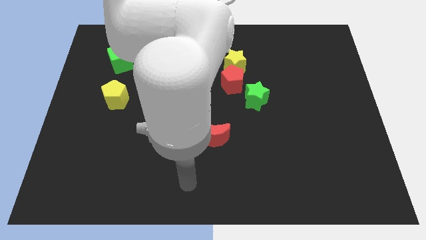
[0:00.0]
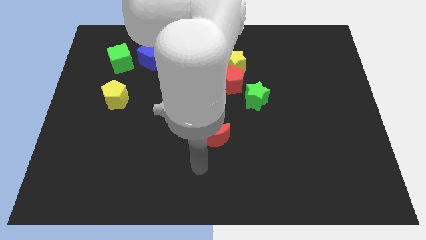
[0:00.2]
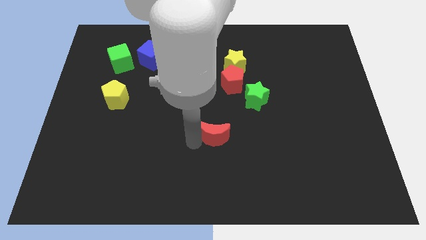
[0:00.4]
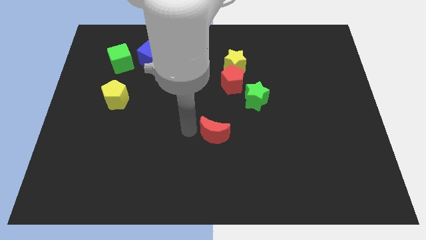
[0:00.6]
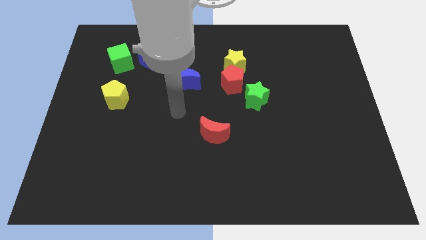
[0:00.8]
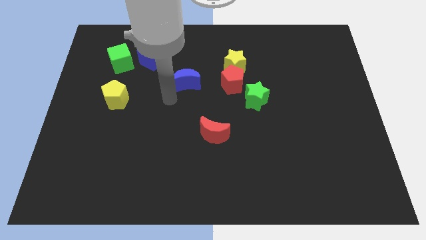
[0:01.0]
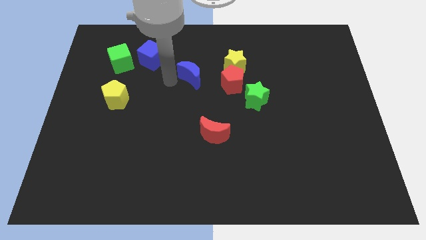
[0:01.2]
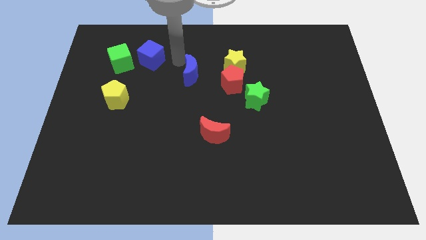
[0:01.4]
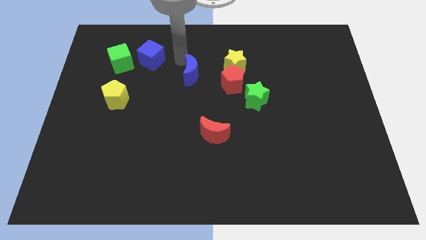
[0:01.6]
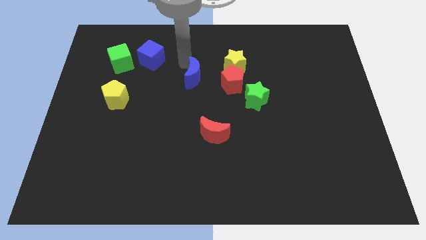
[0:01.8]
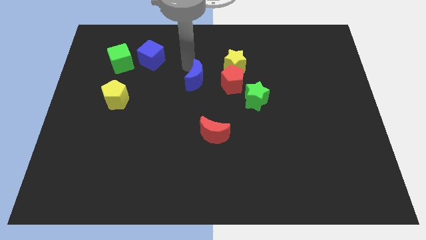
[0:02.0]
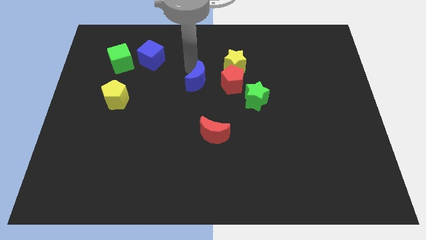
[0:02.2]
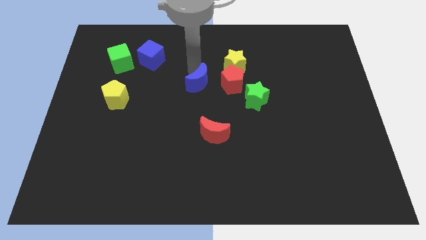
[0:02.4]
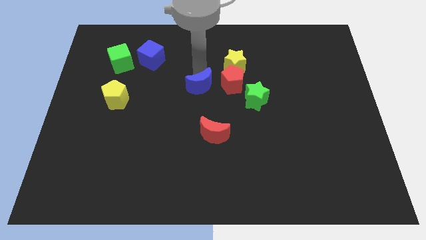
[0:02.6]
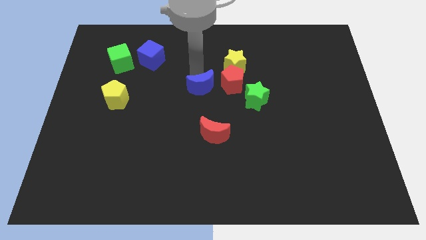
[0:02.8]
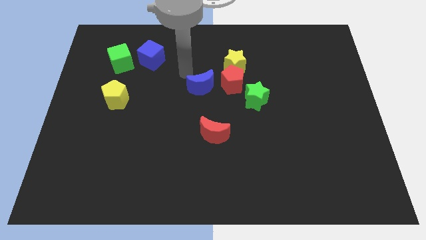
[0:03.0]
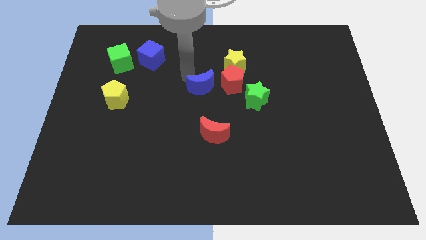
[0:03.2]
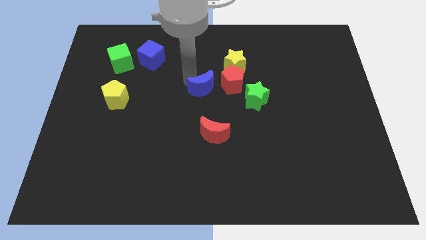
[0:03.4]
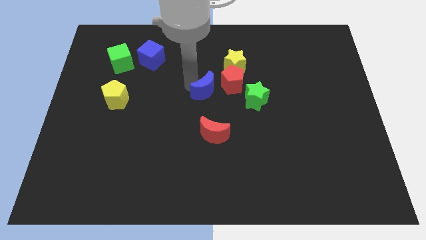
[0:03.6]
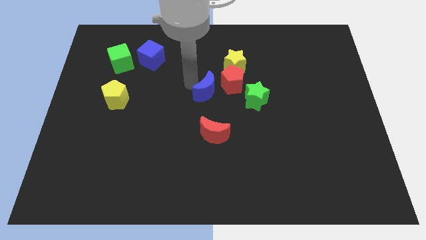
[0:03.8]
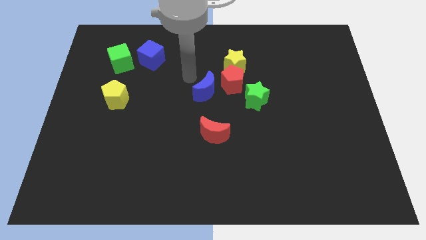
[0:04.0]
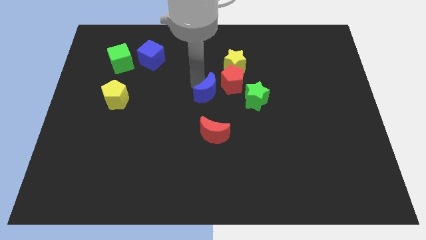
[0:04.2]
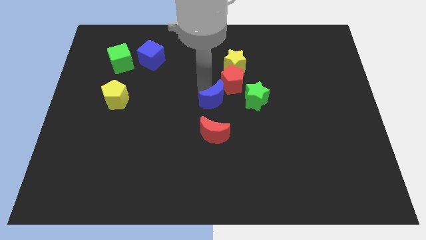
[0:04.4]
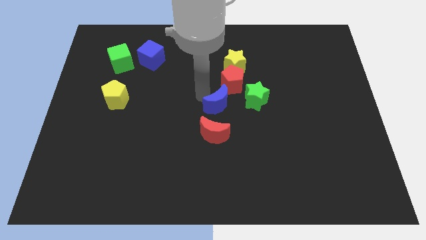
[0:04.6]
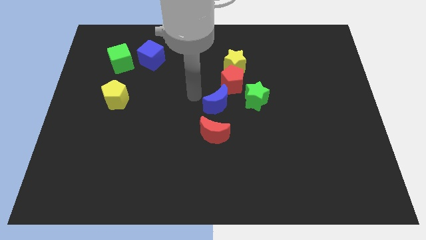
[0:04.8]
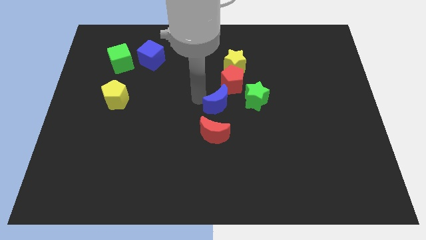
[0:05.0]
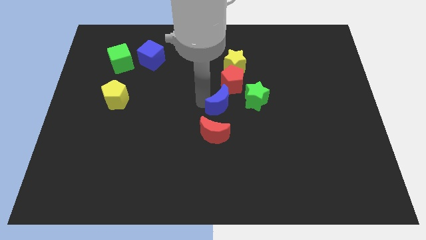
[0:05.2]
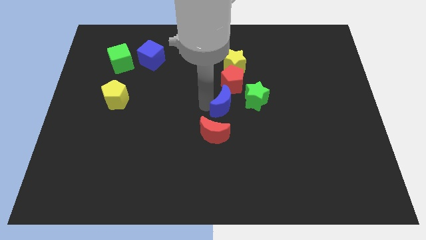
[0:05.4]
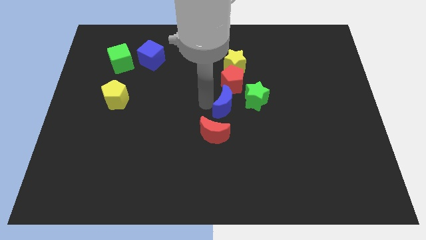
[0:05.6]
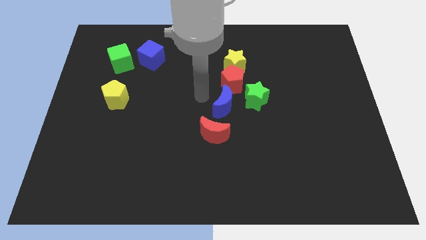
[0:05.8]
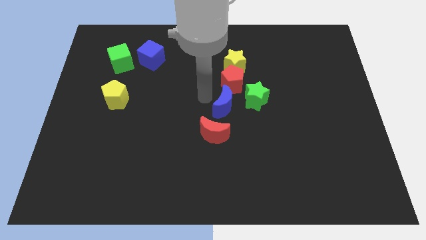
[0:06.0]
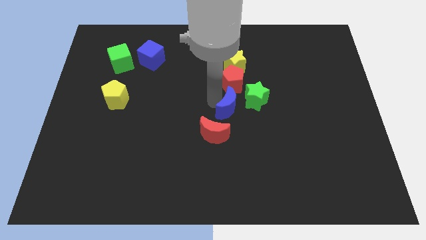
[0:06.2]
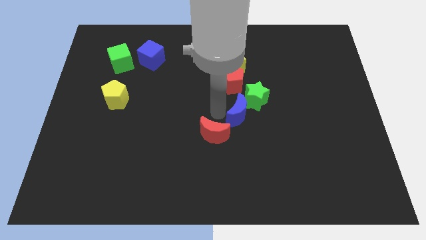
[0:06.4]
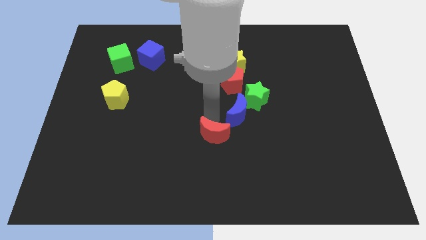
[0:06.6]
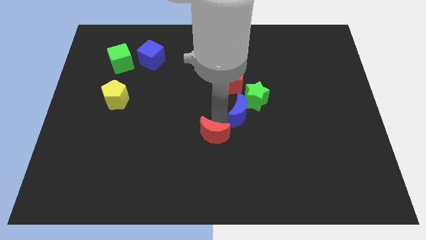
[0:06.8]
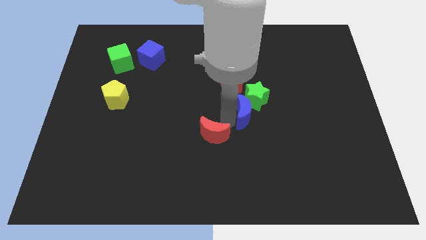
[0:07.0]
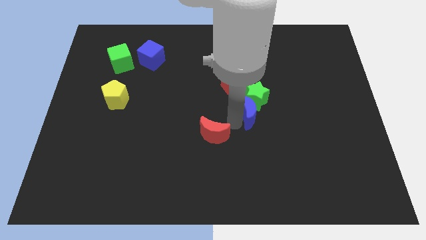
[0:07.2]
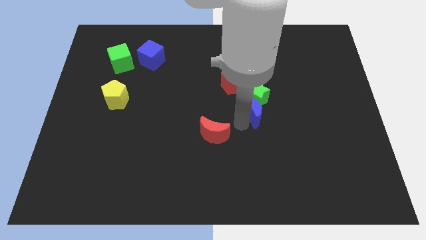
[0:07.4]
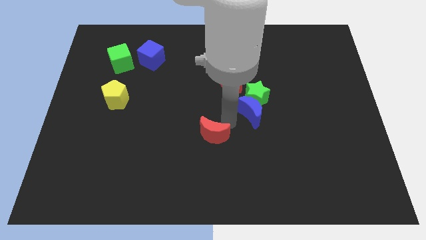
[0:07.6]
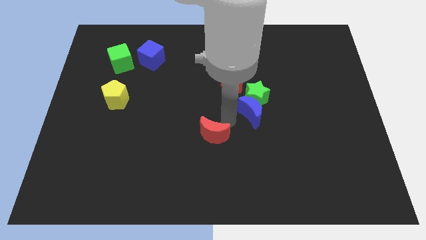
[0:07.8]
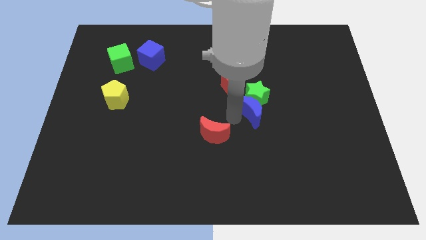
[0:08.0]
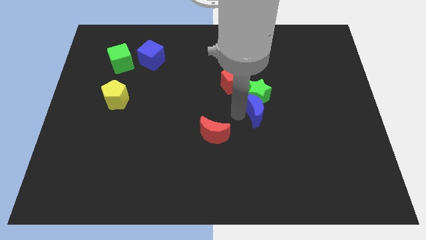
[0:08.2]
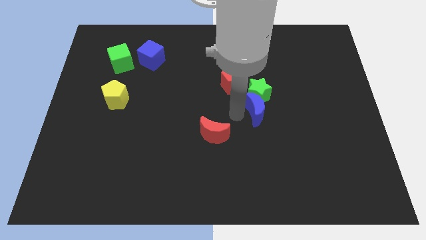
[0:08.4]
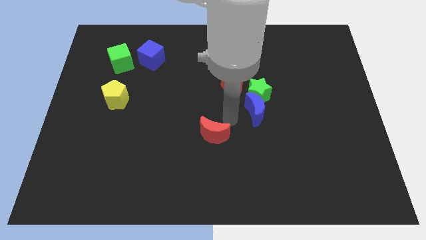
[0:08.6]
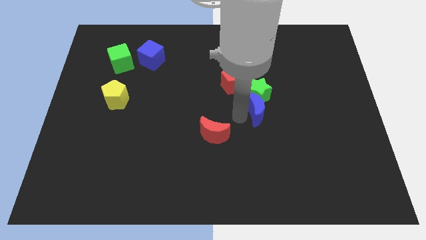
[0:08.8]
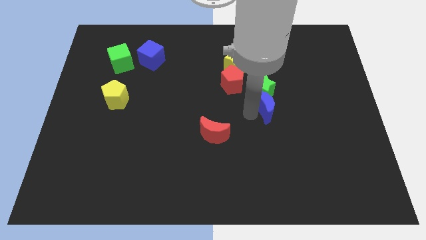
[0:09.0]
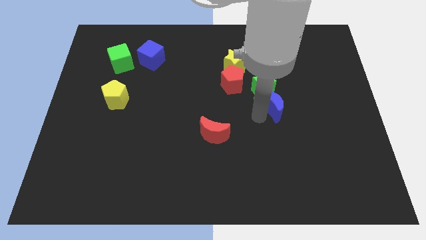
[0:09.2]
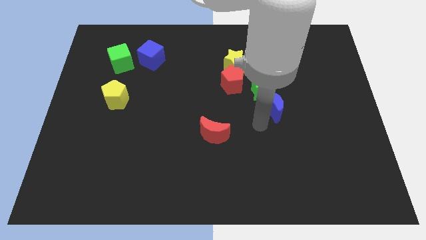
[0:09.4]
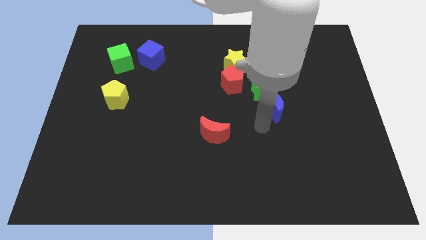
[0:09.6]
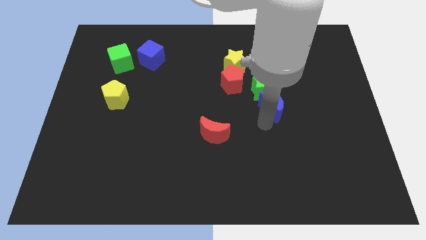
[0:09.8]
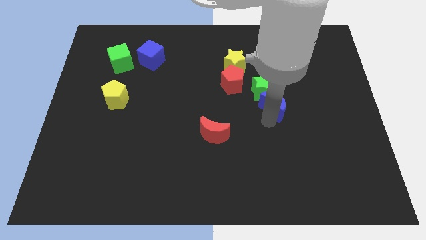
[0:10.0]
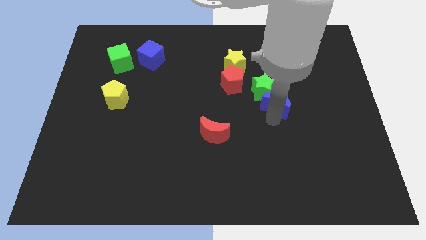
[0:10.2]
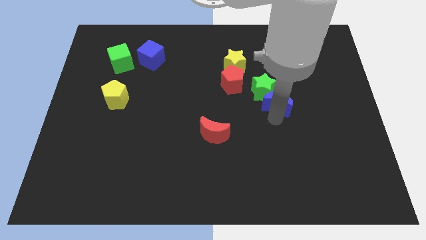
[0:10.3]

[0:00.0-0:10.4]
push the blue moon right

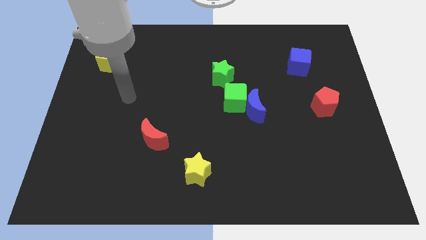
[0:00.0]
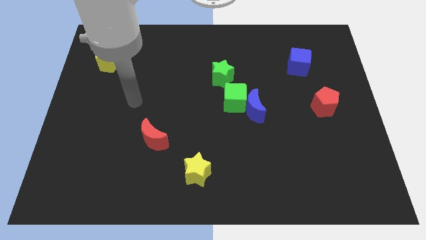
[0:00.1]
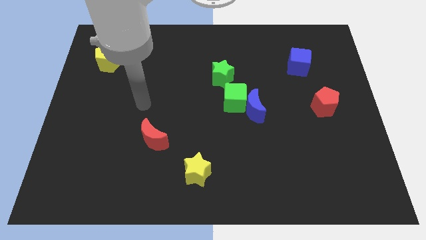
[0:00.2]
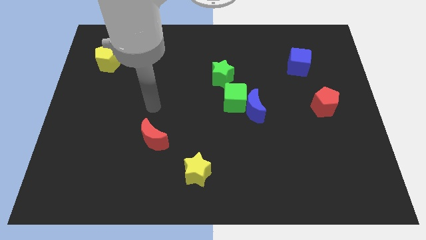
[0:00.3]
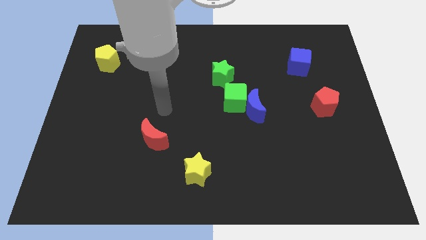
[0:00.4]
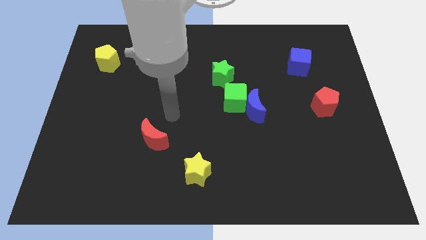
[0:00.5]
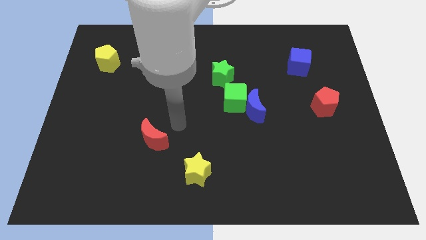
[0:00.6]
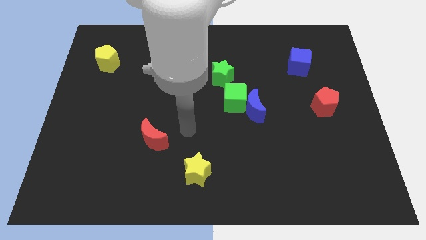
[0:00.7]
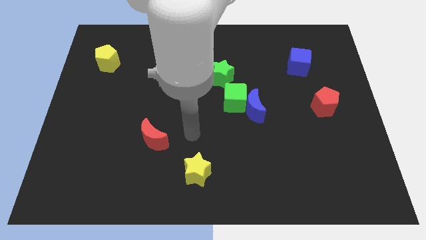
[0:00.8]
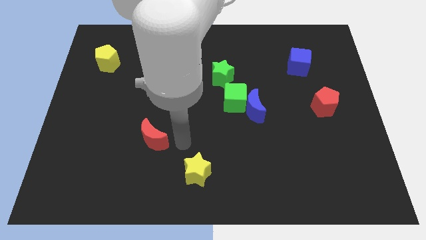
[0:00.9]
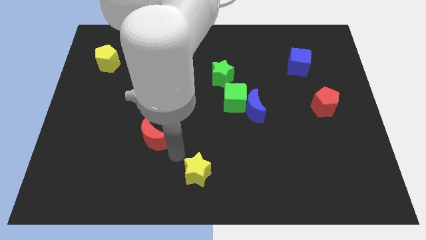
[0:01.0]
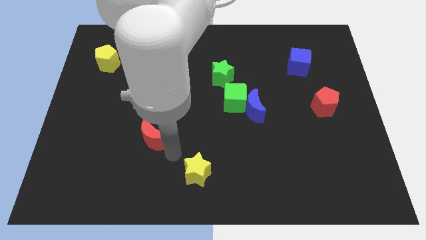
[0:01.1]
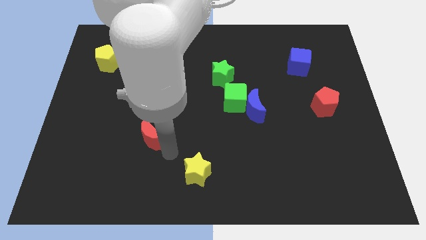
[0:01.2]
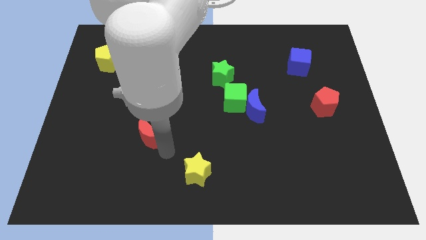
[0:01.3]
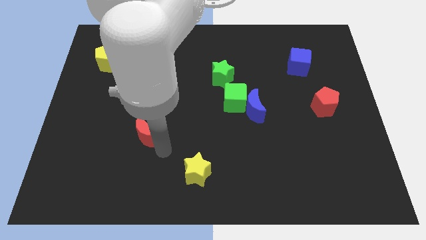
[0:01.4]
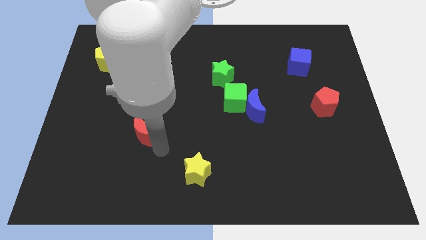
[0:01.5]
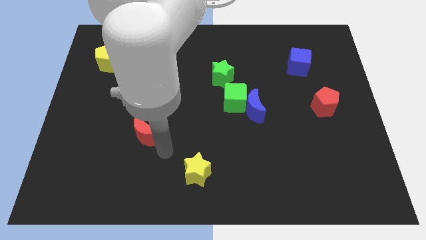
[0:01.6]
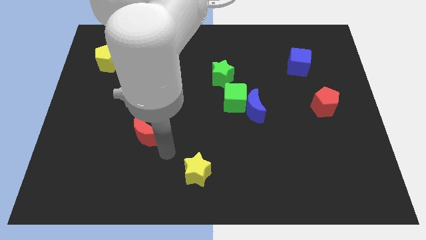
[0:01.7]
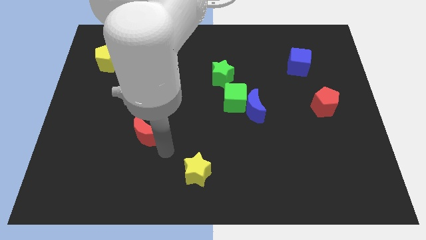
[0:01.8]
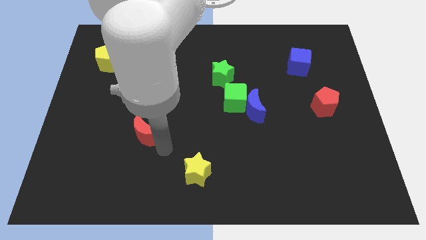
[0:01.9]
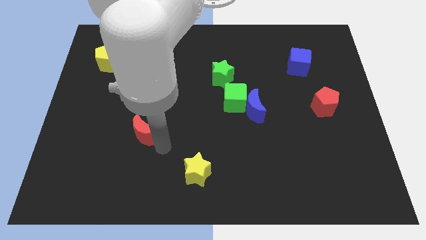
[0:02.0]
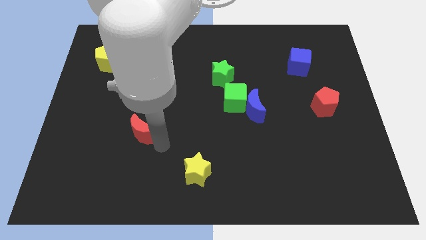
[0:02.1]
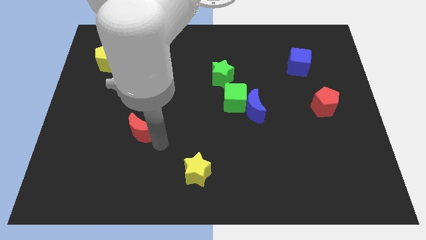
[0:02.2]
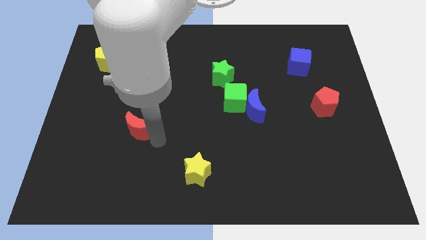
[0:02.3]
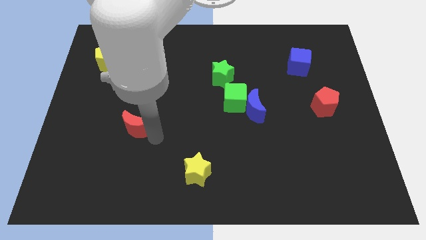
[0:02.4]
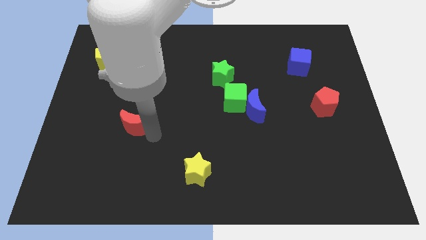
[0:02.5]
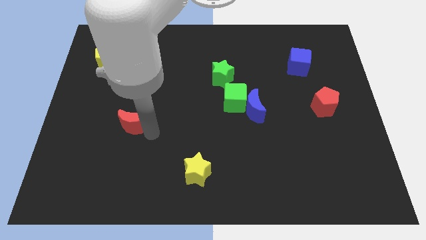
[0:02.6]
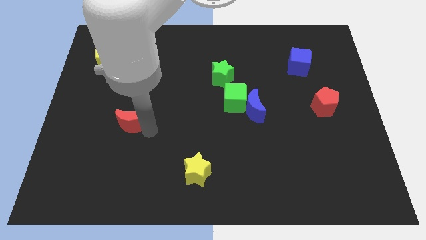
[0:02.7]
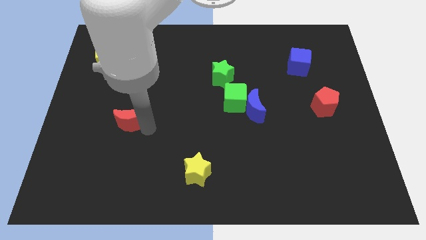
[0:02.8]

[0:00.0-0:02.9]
slightly push the red moon up and then left
